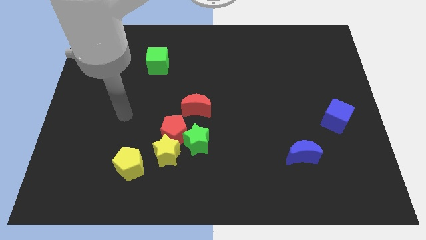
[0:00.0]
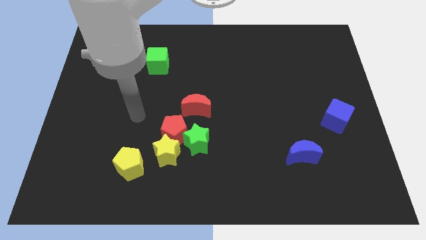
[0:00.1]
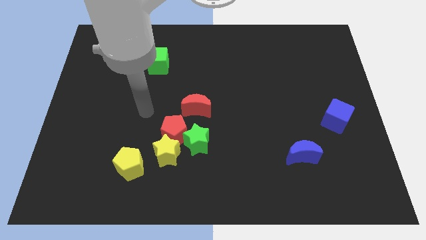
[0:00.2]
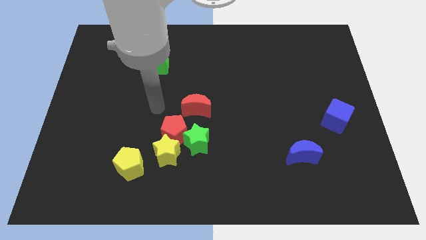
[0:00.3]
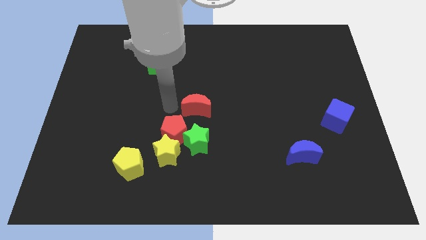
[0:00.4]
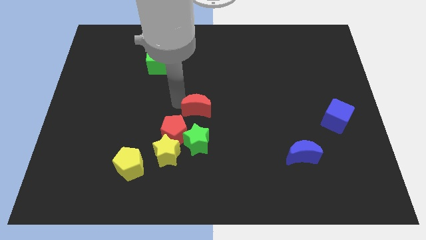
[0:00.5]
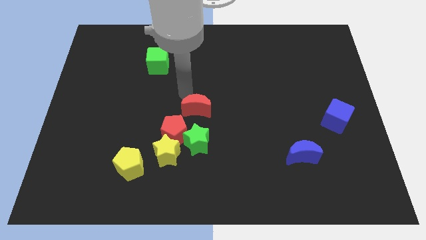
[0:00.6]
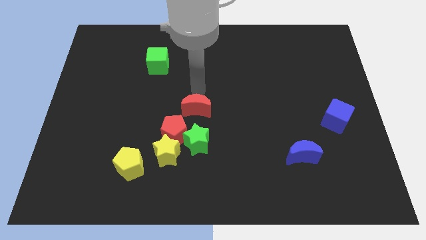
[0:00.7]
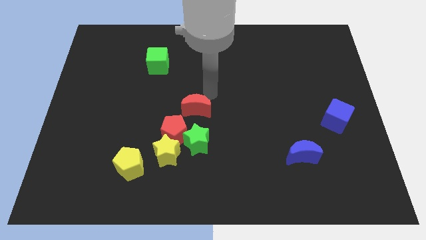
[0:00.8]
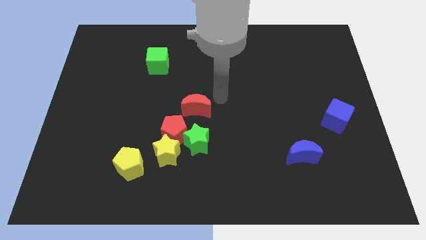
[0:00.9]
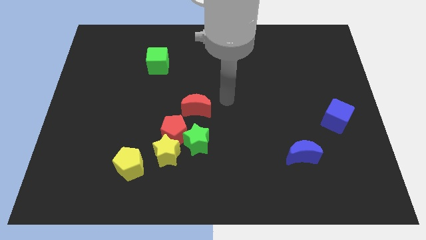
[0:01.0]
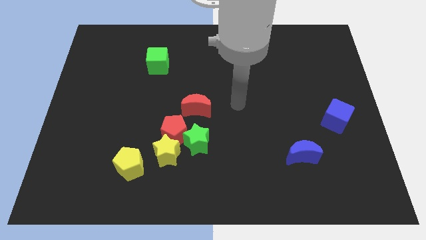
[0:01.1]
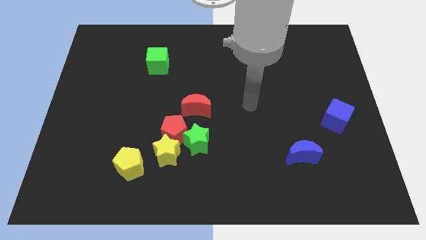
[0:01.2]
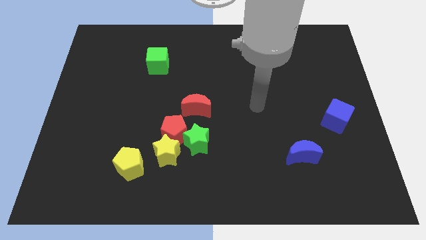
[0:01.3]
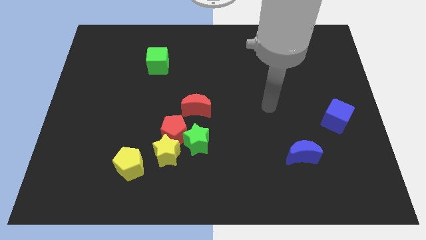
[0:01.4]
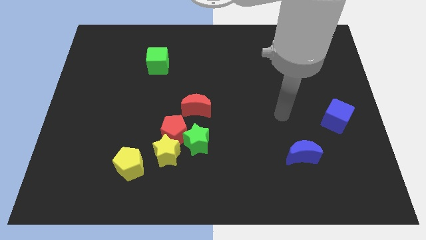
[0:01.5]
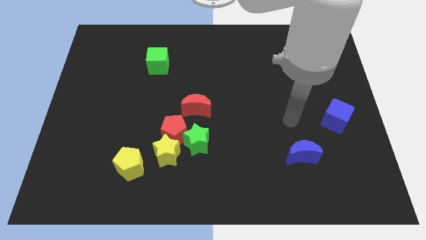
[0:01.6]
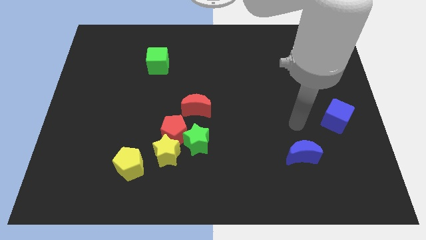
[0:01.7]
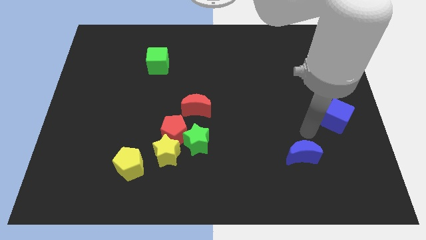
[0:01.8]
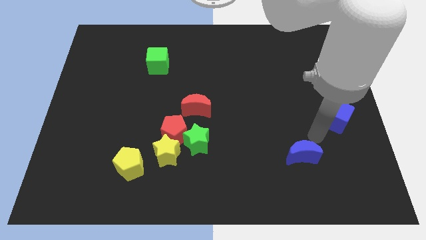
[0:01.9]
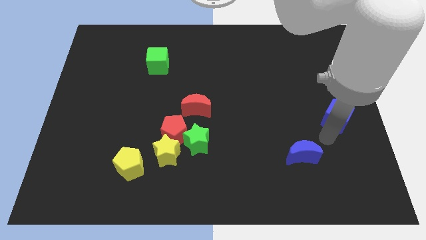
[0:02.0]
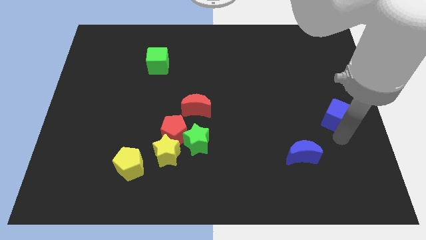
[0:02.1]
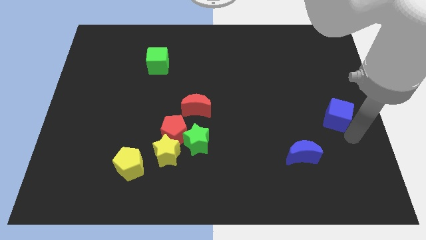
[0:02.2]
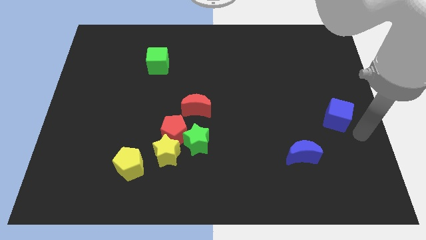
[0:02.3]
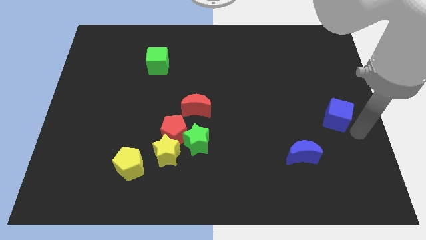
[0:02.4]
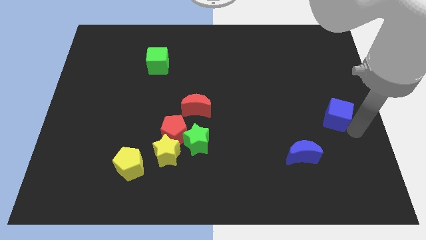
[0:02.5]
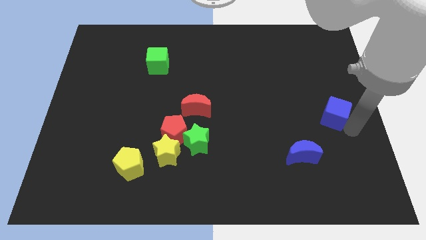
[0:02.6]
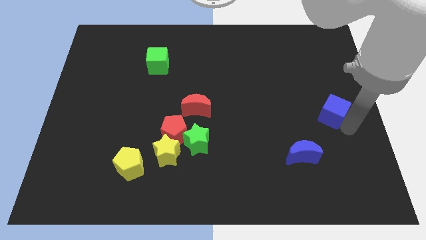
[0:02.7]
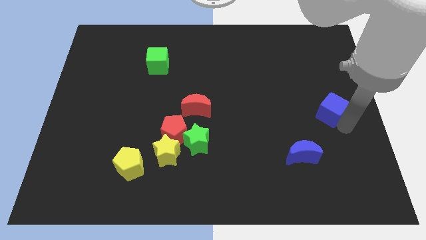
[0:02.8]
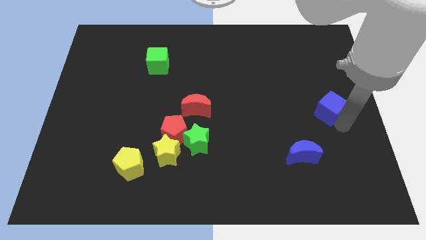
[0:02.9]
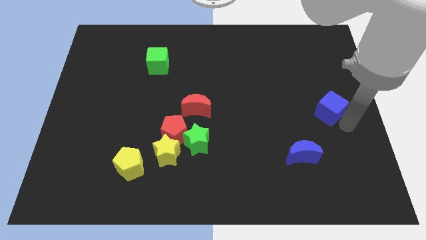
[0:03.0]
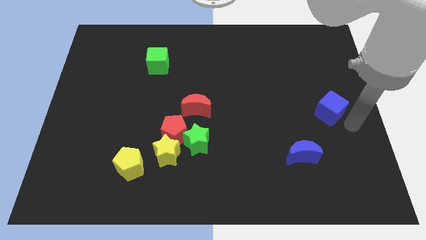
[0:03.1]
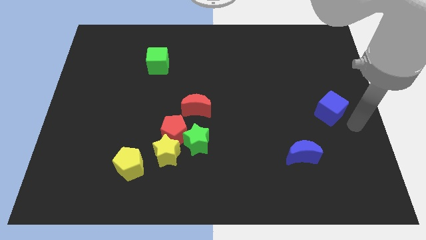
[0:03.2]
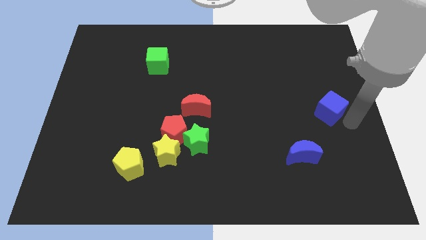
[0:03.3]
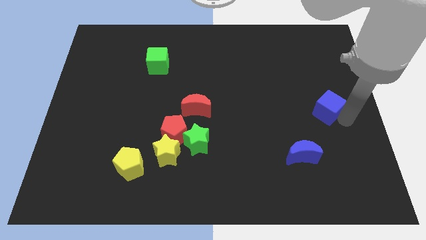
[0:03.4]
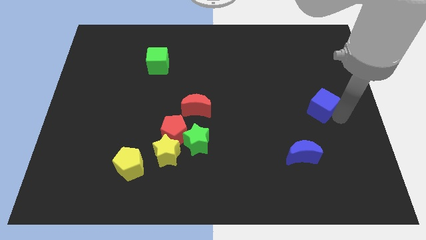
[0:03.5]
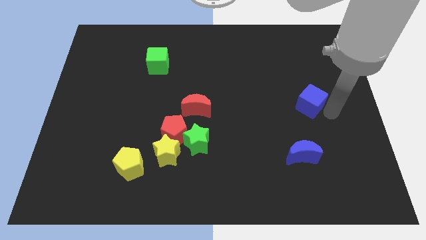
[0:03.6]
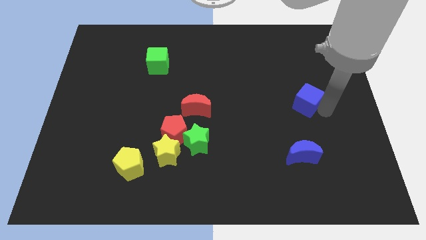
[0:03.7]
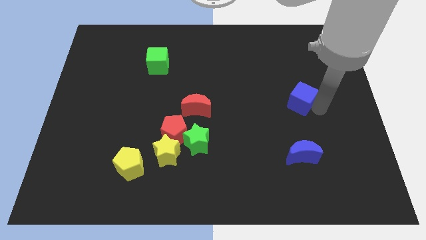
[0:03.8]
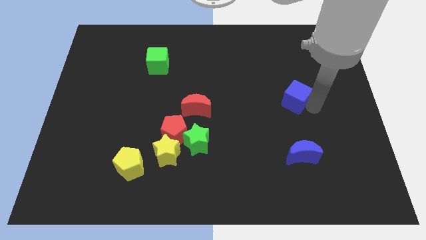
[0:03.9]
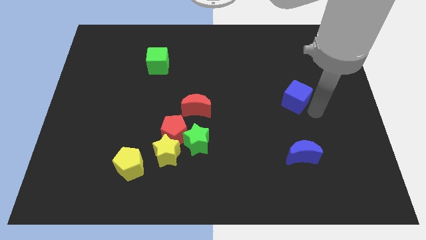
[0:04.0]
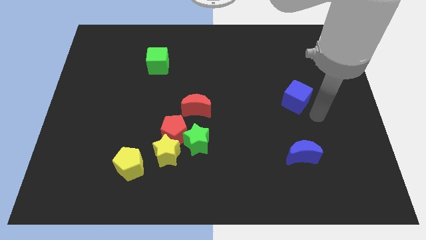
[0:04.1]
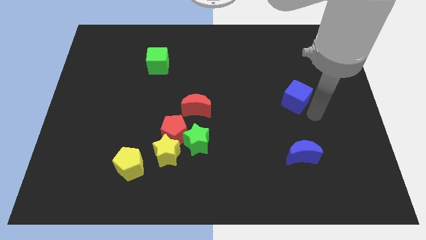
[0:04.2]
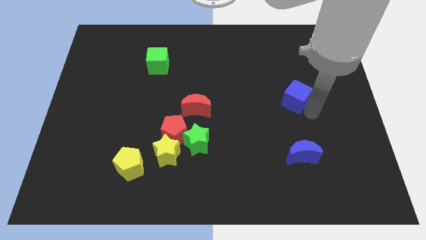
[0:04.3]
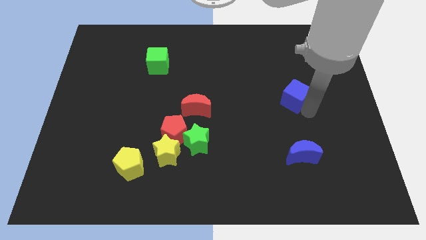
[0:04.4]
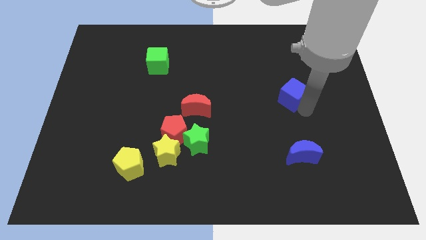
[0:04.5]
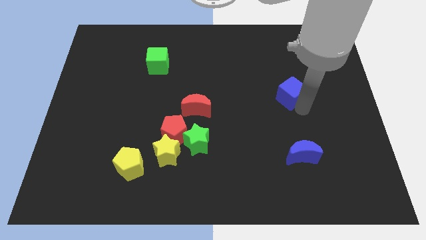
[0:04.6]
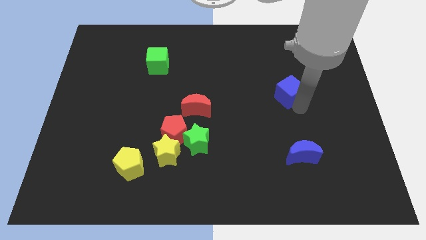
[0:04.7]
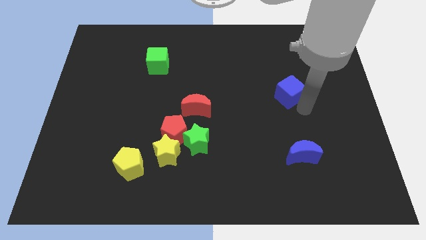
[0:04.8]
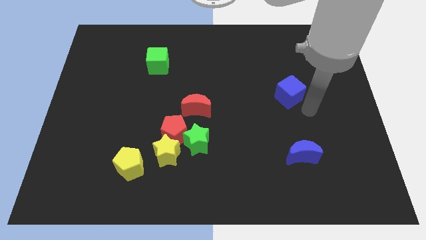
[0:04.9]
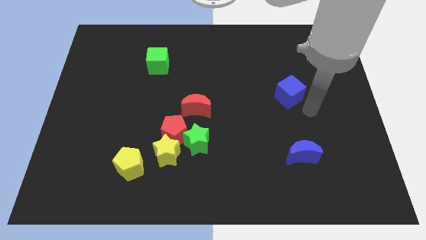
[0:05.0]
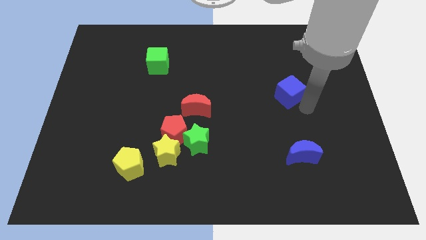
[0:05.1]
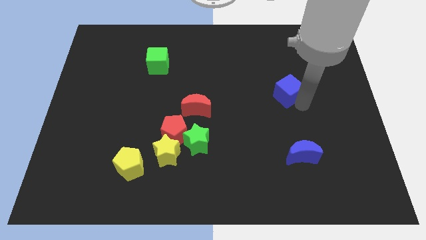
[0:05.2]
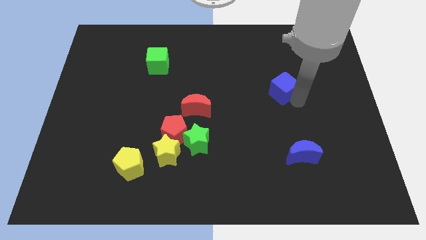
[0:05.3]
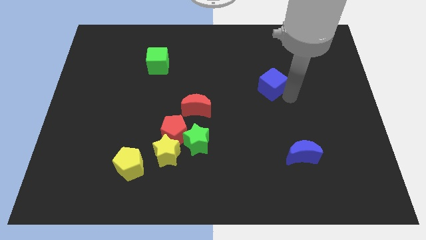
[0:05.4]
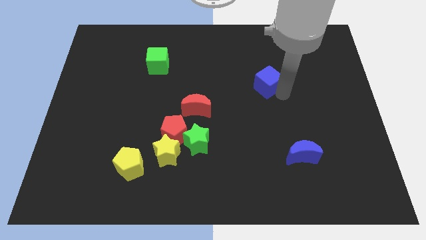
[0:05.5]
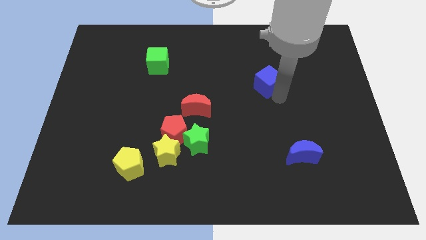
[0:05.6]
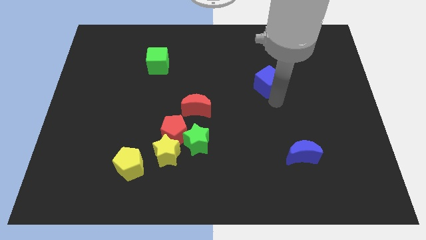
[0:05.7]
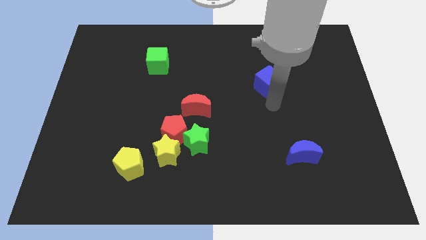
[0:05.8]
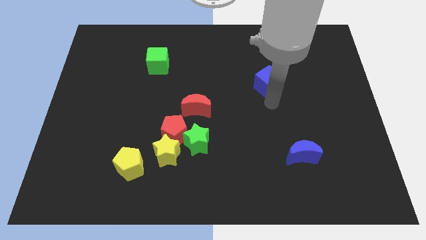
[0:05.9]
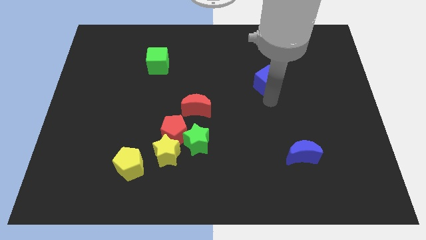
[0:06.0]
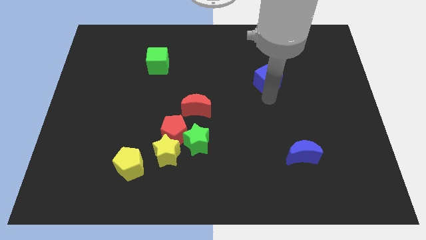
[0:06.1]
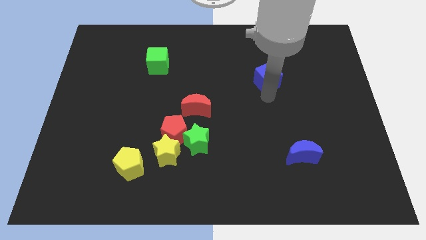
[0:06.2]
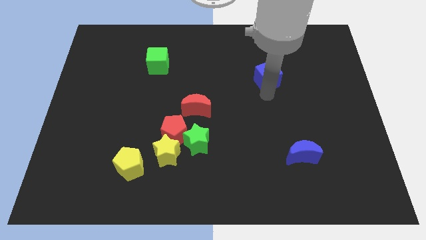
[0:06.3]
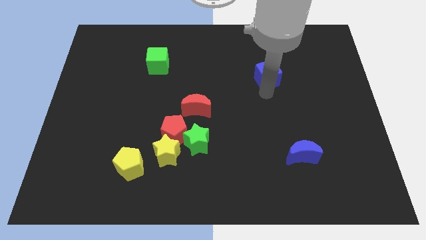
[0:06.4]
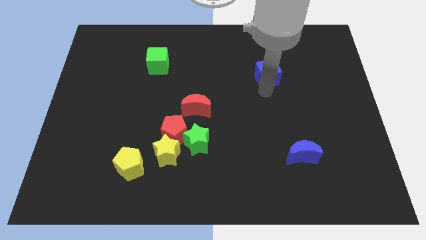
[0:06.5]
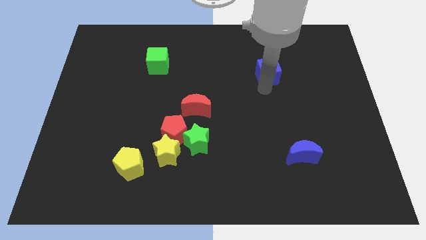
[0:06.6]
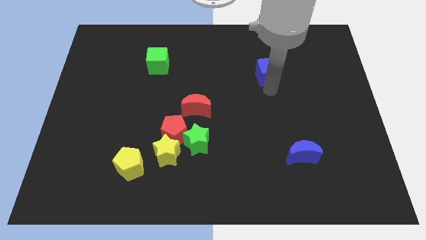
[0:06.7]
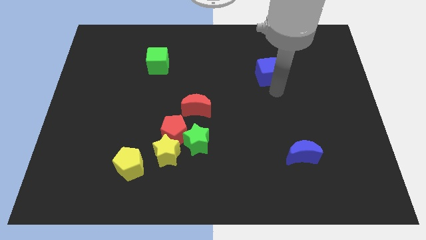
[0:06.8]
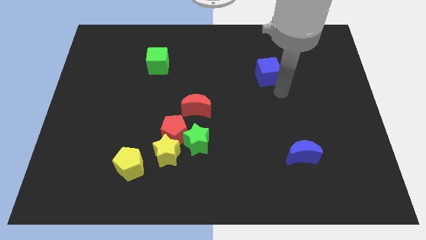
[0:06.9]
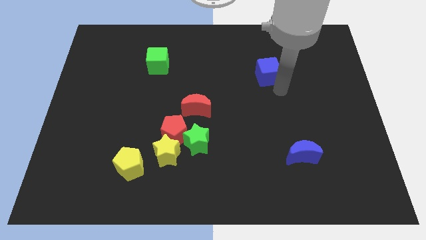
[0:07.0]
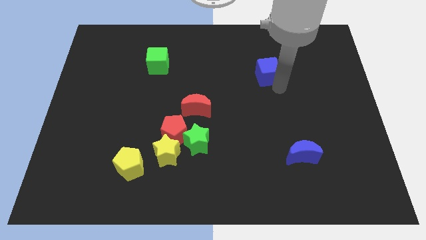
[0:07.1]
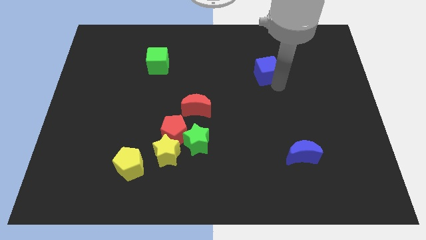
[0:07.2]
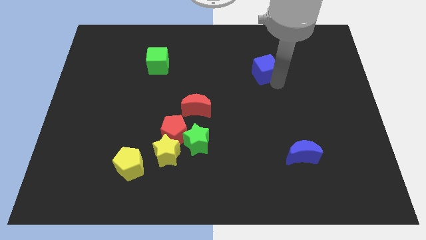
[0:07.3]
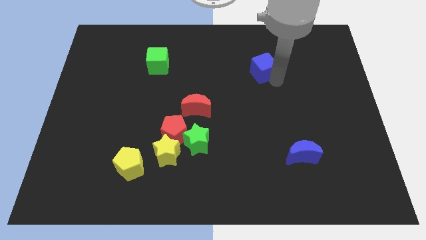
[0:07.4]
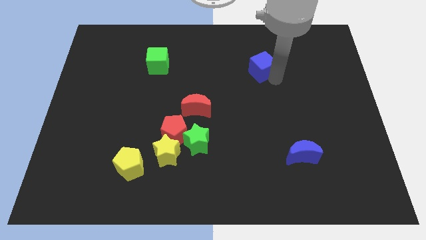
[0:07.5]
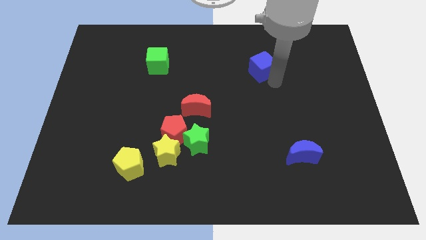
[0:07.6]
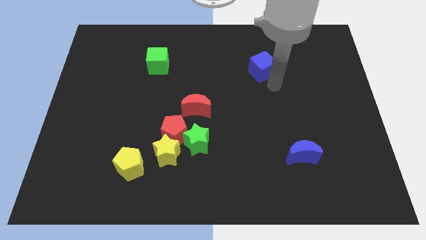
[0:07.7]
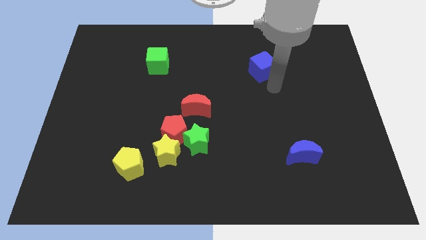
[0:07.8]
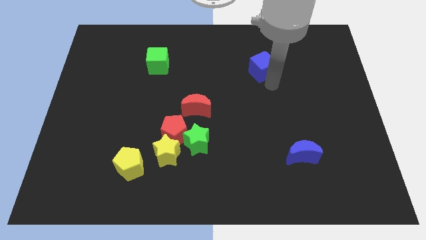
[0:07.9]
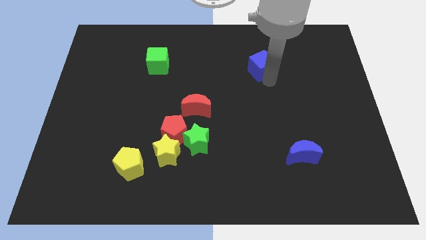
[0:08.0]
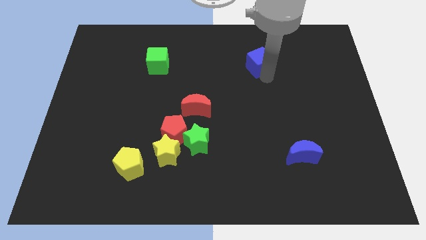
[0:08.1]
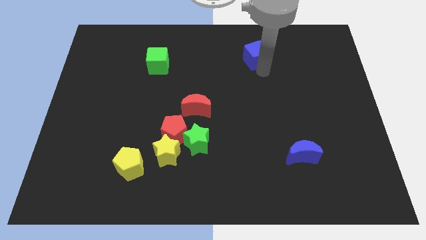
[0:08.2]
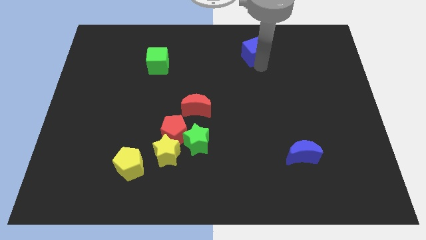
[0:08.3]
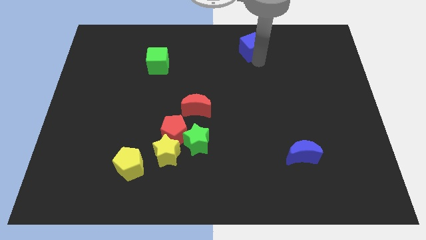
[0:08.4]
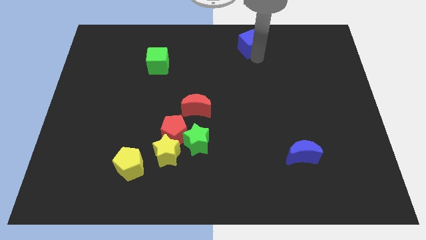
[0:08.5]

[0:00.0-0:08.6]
push the blue cube to the top
